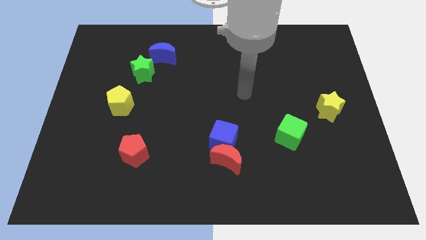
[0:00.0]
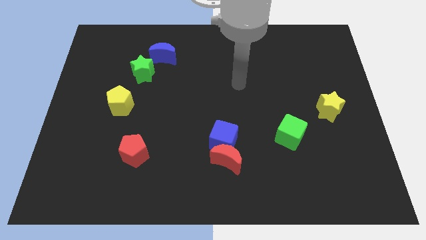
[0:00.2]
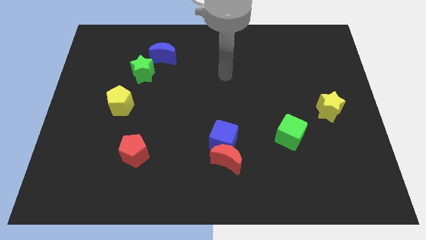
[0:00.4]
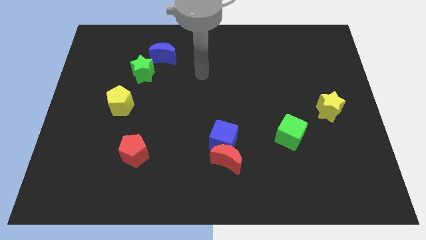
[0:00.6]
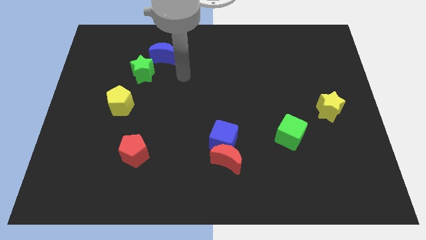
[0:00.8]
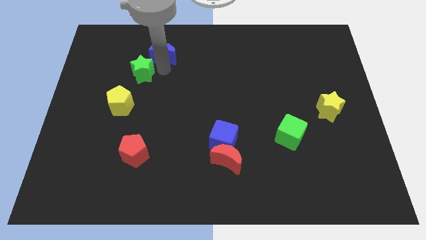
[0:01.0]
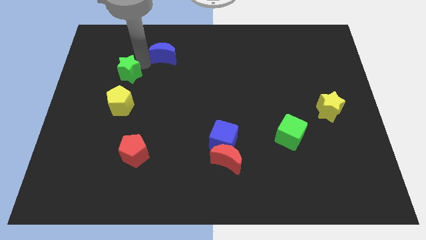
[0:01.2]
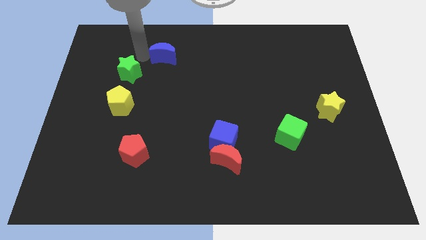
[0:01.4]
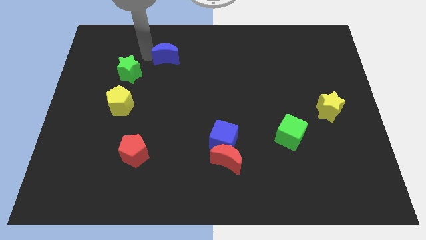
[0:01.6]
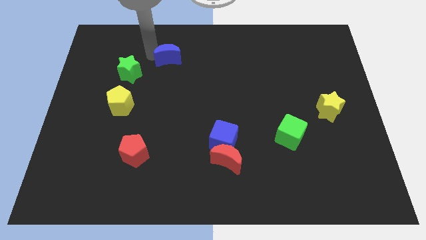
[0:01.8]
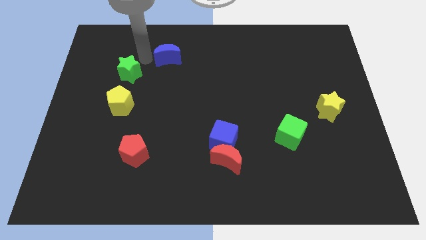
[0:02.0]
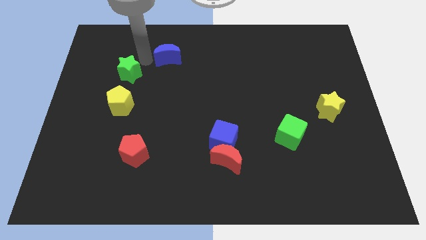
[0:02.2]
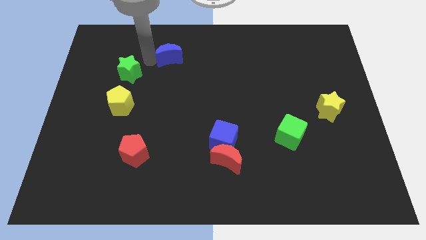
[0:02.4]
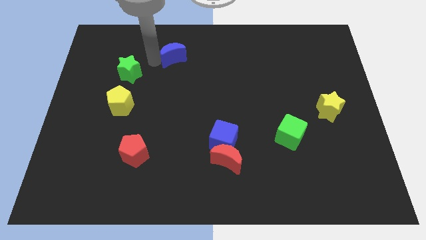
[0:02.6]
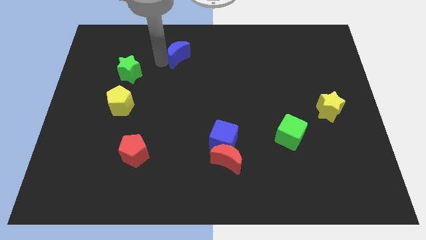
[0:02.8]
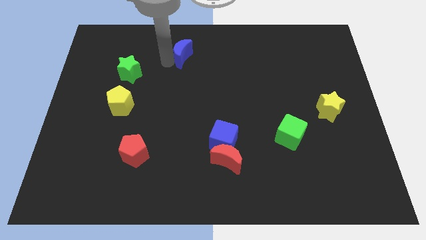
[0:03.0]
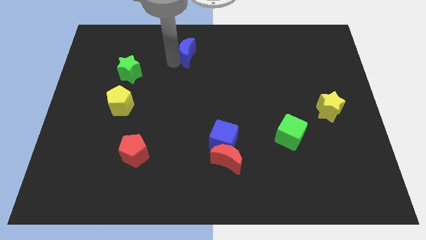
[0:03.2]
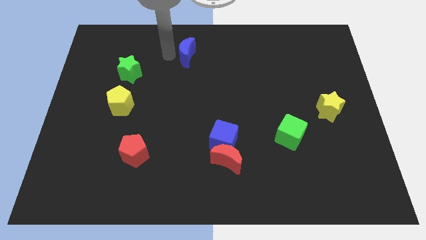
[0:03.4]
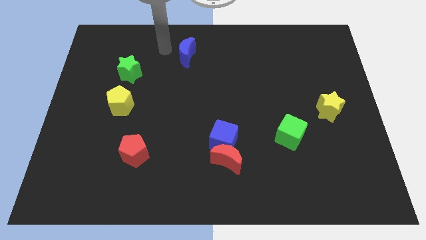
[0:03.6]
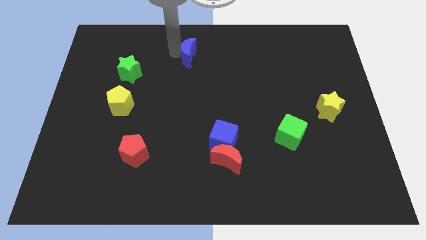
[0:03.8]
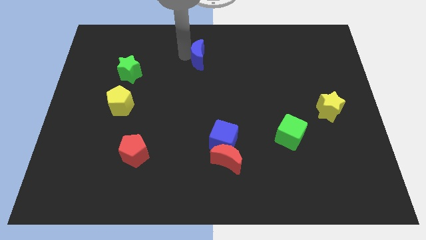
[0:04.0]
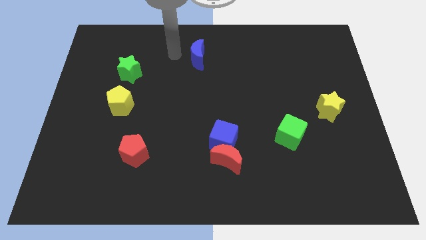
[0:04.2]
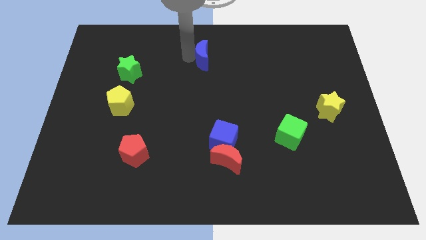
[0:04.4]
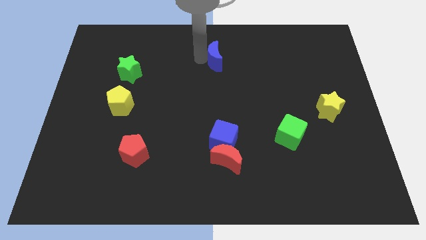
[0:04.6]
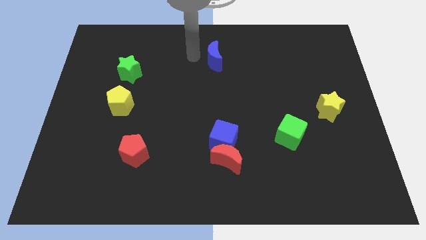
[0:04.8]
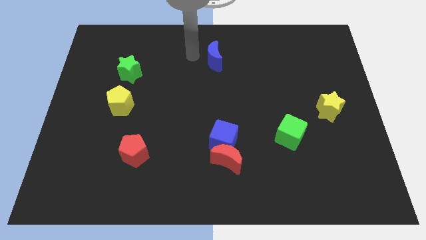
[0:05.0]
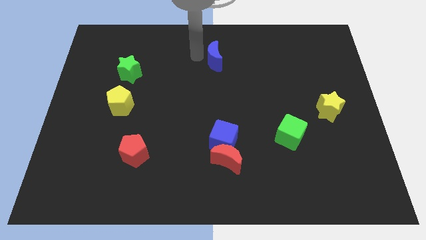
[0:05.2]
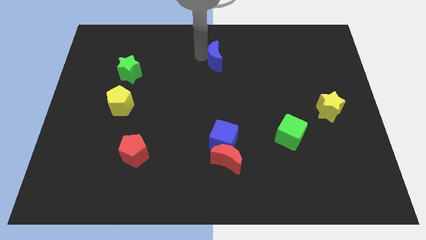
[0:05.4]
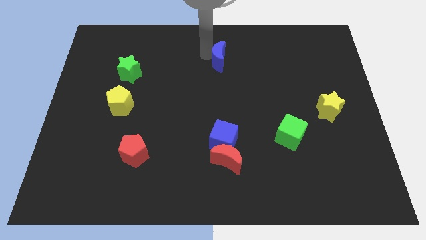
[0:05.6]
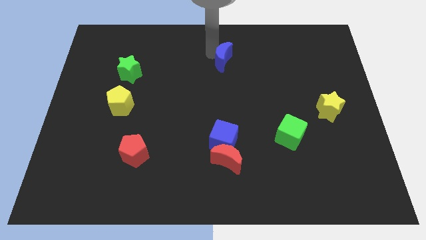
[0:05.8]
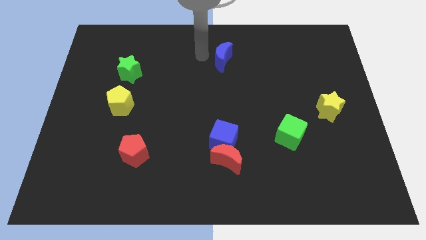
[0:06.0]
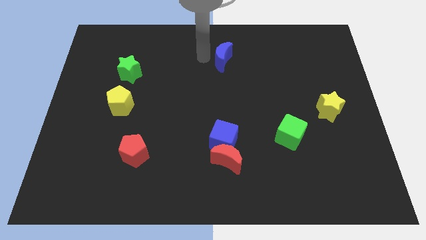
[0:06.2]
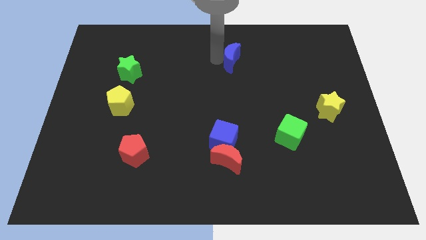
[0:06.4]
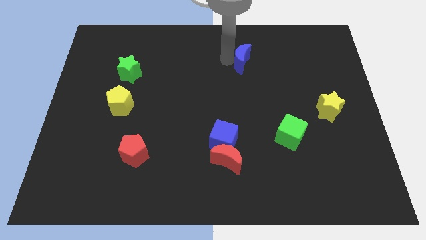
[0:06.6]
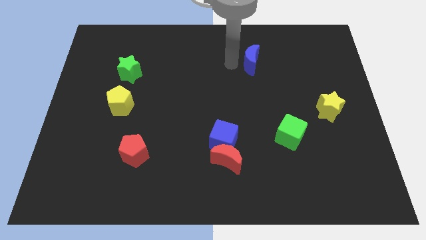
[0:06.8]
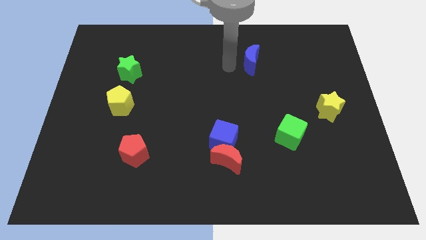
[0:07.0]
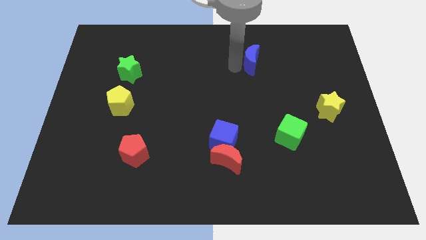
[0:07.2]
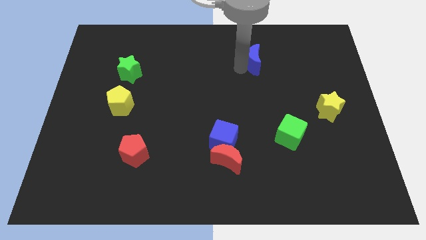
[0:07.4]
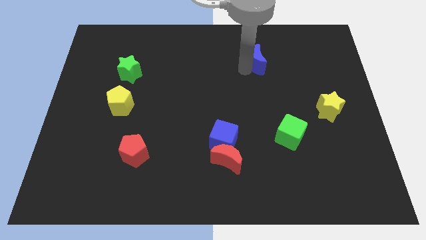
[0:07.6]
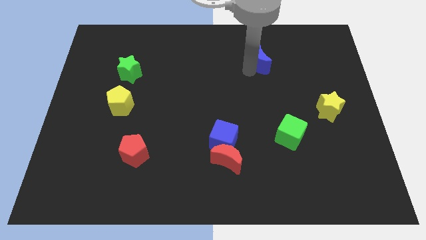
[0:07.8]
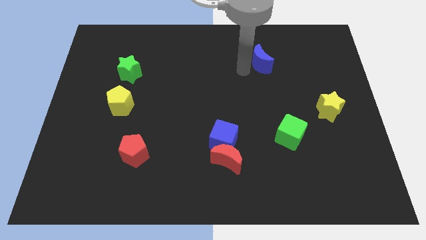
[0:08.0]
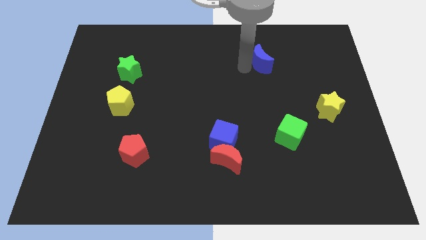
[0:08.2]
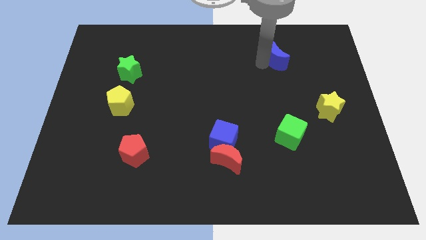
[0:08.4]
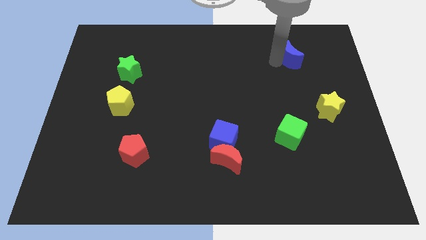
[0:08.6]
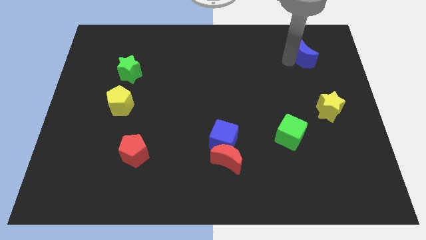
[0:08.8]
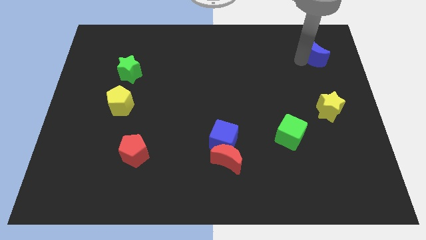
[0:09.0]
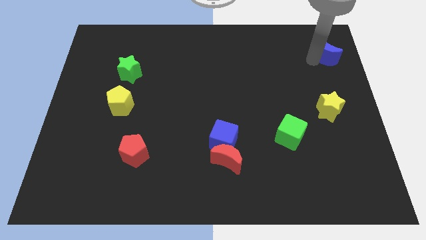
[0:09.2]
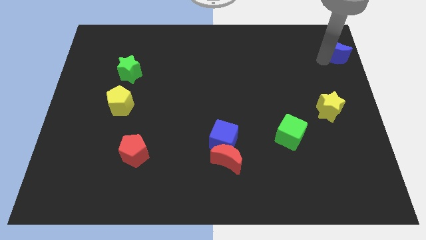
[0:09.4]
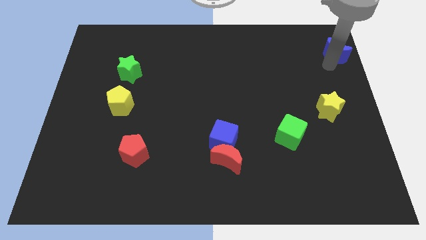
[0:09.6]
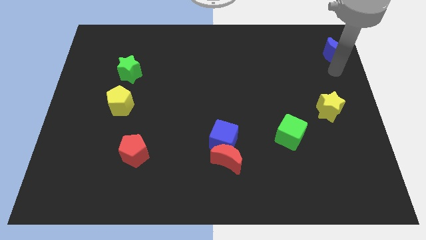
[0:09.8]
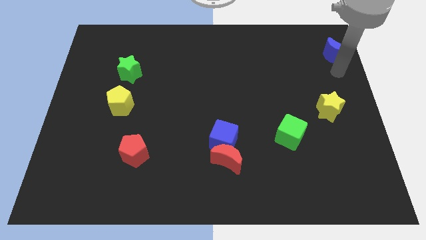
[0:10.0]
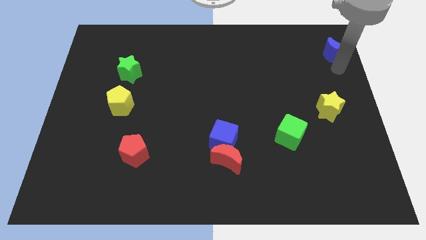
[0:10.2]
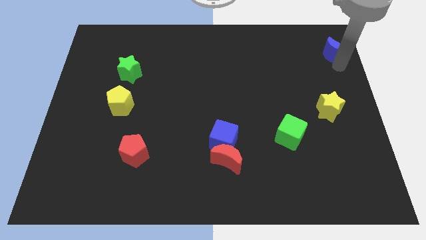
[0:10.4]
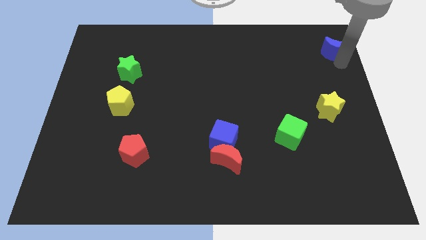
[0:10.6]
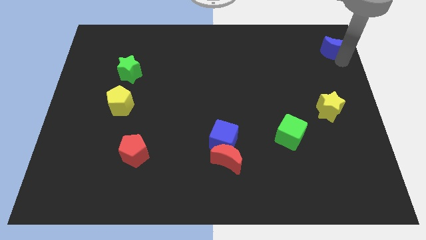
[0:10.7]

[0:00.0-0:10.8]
put the blue moon to the top right of the board
